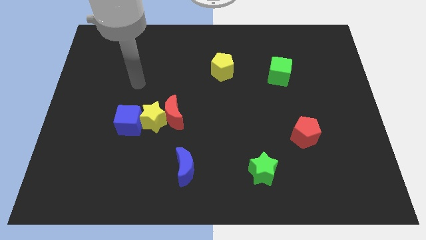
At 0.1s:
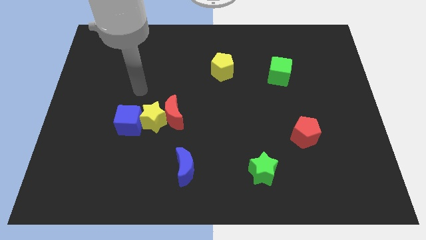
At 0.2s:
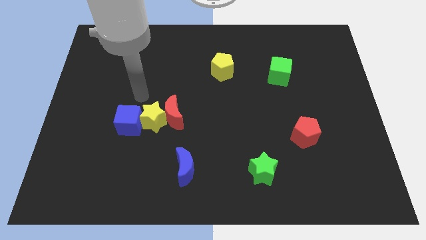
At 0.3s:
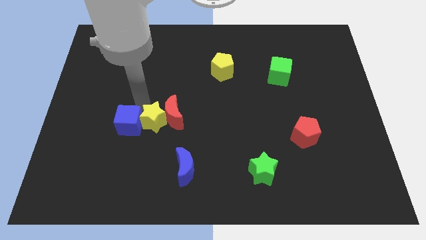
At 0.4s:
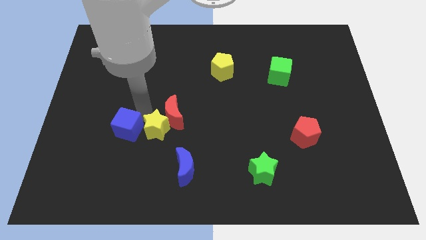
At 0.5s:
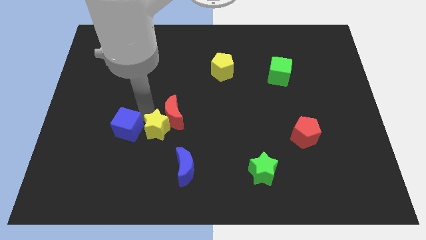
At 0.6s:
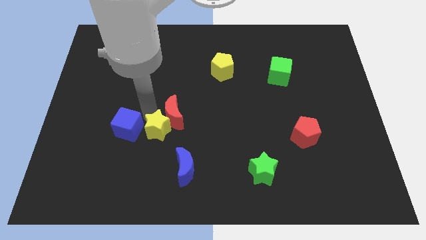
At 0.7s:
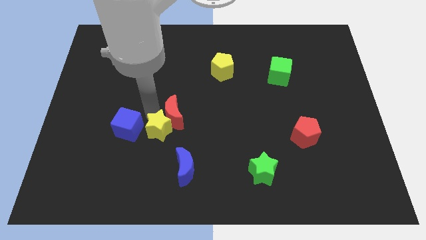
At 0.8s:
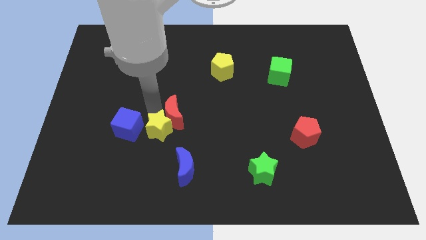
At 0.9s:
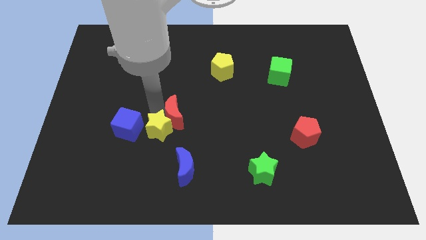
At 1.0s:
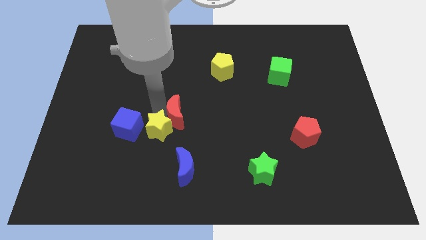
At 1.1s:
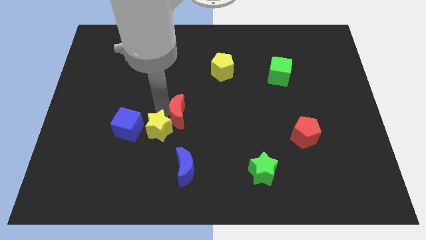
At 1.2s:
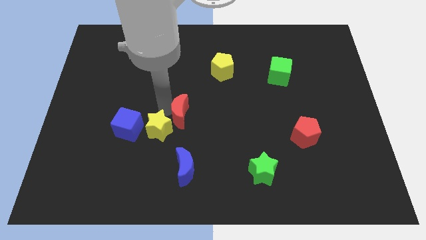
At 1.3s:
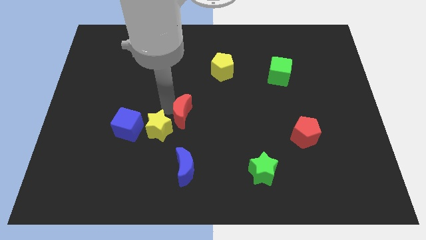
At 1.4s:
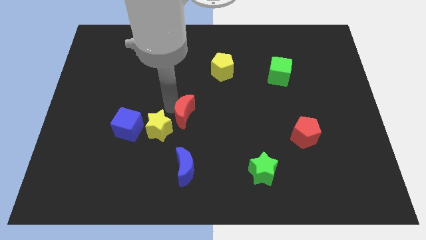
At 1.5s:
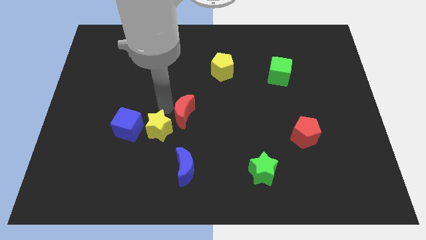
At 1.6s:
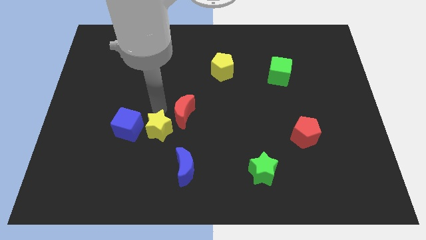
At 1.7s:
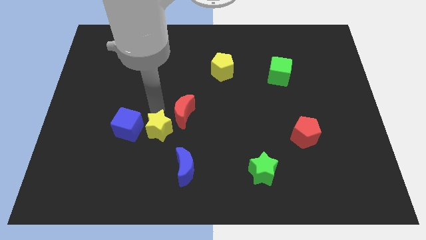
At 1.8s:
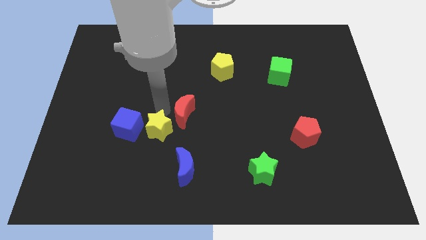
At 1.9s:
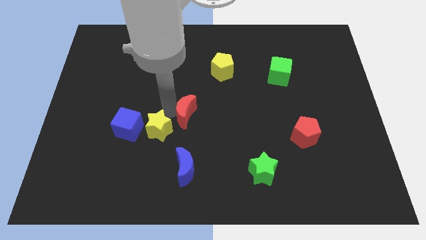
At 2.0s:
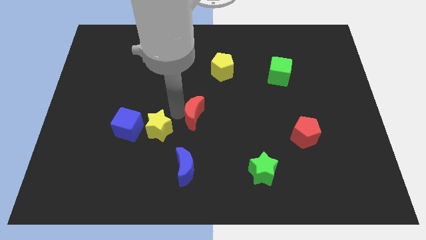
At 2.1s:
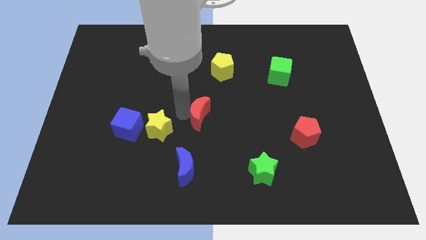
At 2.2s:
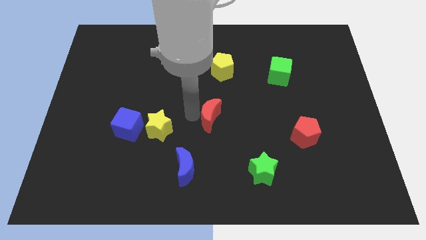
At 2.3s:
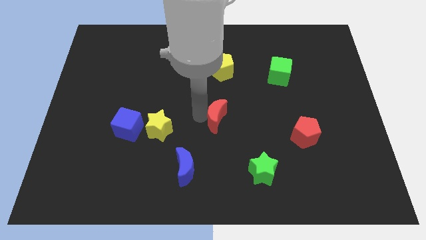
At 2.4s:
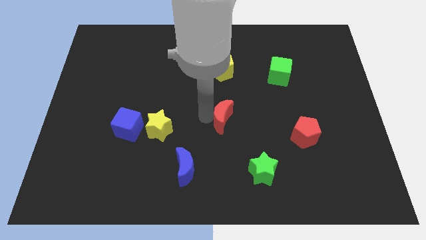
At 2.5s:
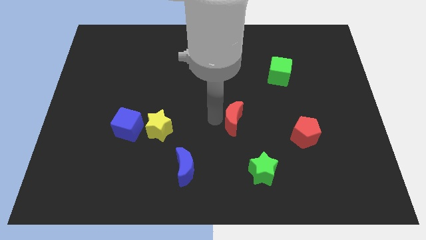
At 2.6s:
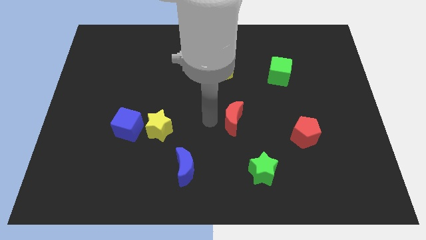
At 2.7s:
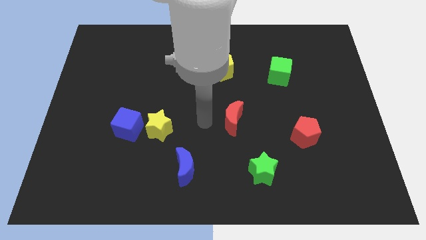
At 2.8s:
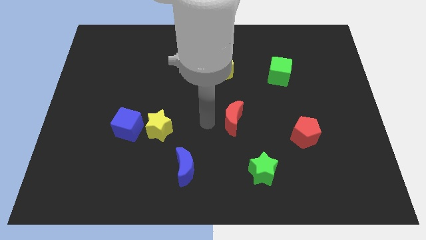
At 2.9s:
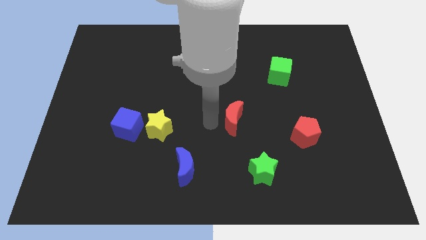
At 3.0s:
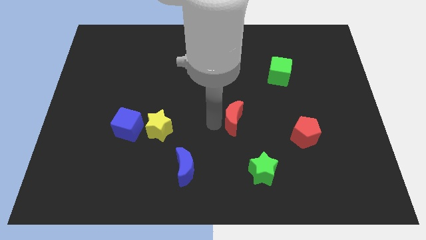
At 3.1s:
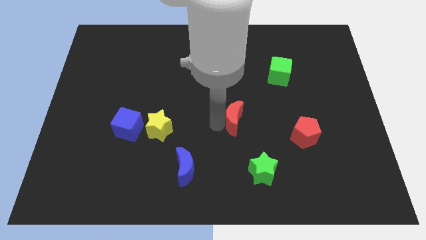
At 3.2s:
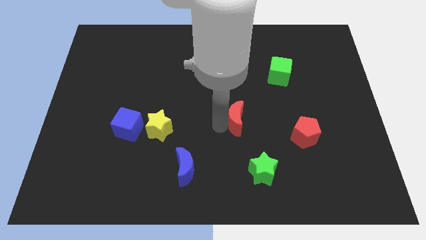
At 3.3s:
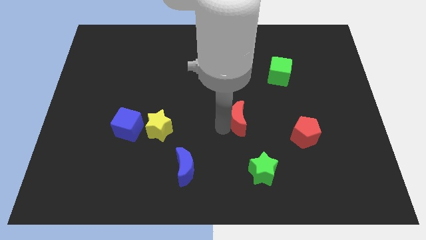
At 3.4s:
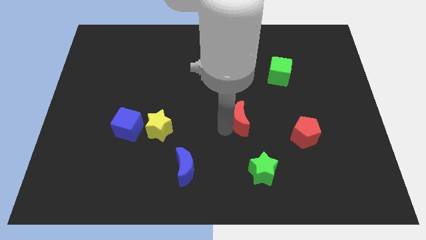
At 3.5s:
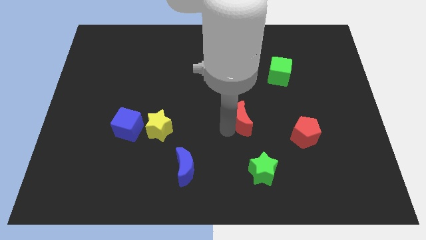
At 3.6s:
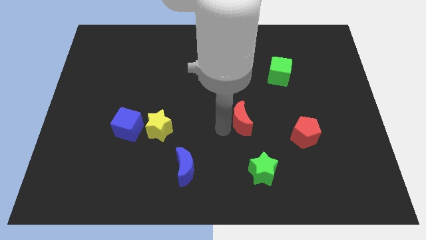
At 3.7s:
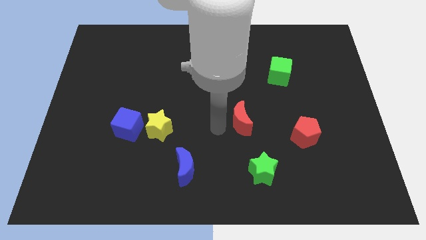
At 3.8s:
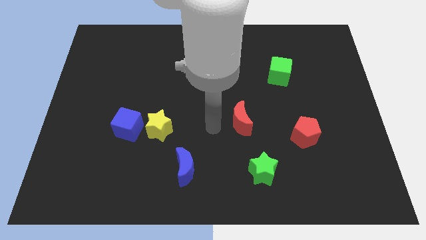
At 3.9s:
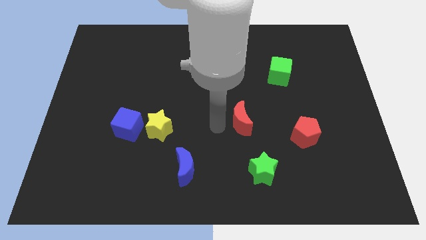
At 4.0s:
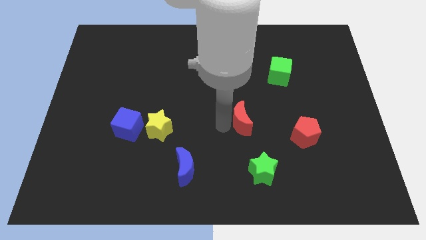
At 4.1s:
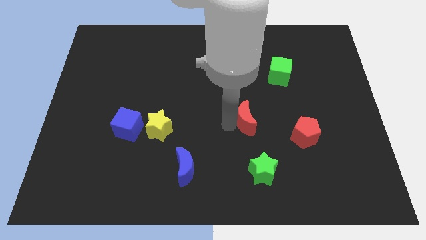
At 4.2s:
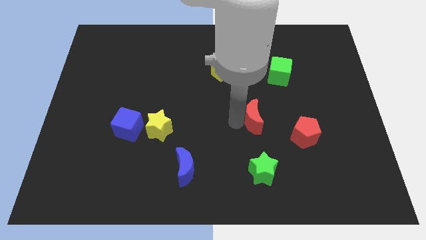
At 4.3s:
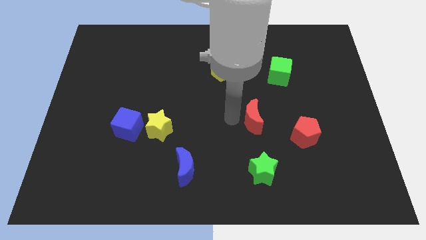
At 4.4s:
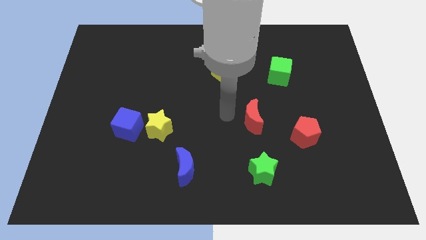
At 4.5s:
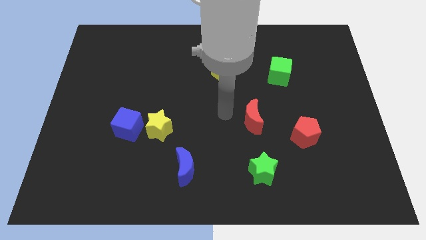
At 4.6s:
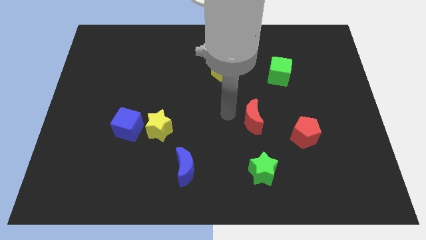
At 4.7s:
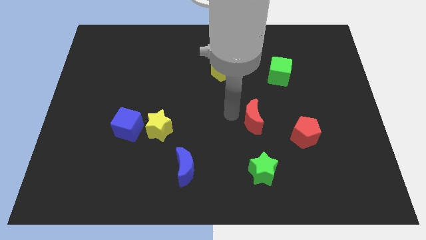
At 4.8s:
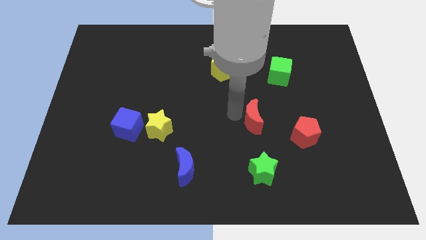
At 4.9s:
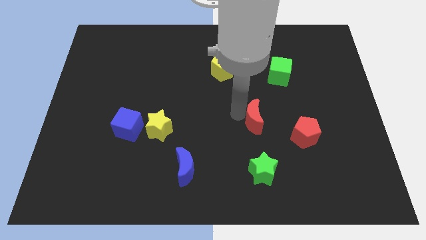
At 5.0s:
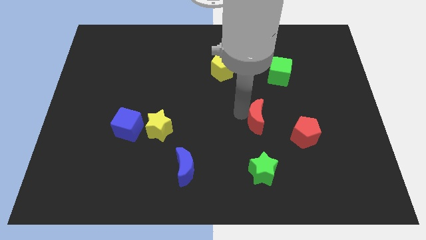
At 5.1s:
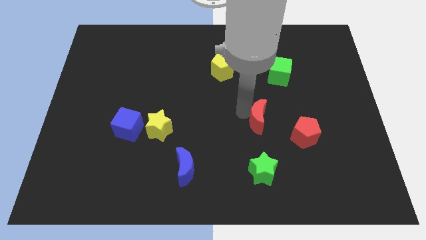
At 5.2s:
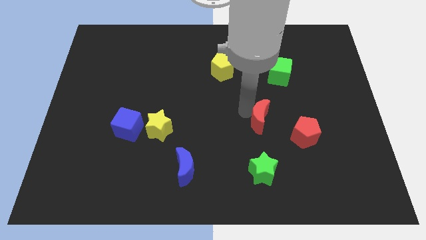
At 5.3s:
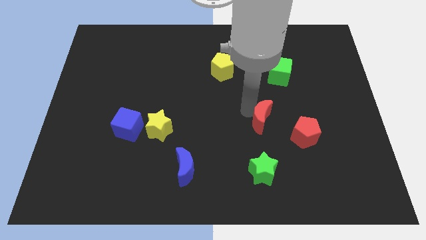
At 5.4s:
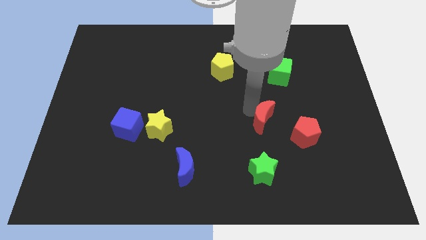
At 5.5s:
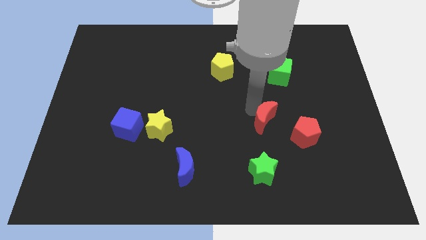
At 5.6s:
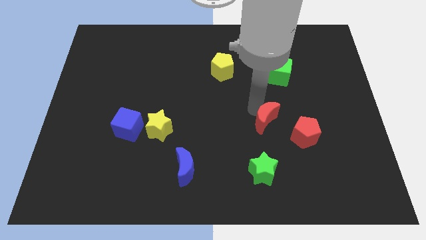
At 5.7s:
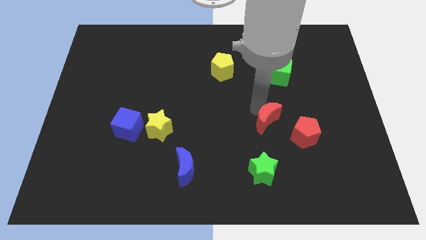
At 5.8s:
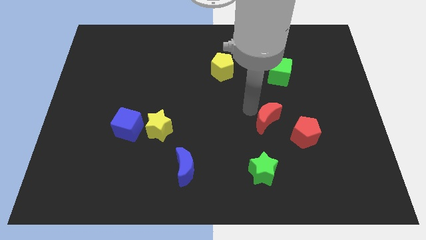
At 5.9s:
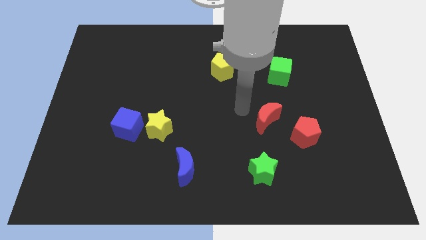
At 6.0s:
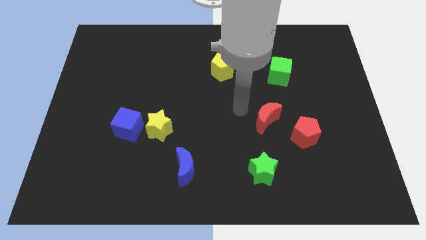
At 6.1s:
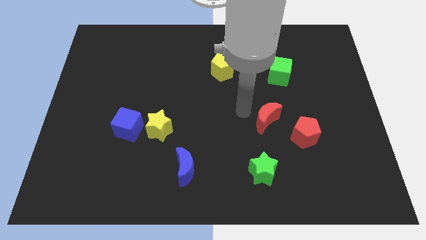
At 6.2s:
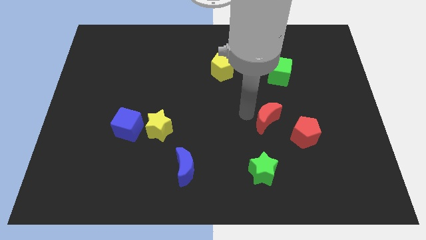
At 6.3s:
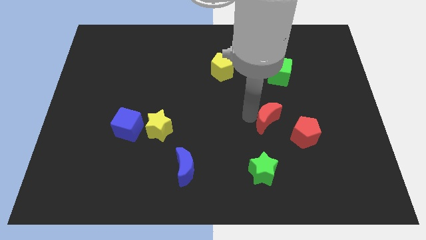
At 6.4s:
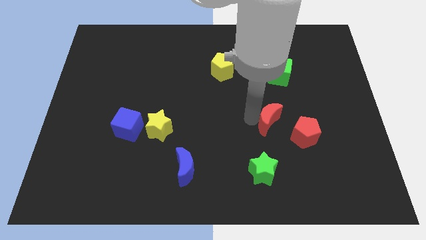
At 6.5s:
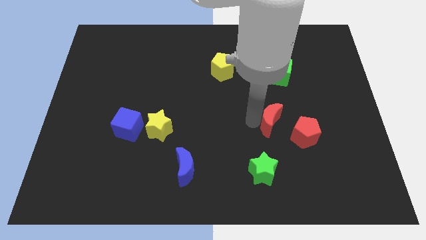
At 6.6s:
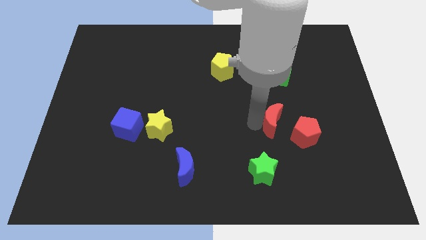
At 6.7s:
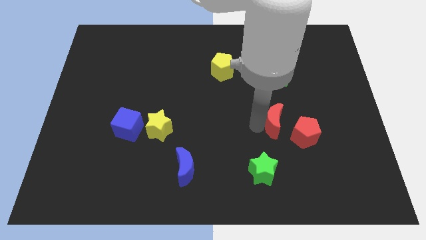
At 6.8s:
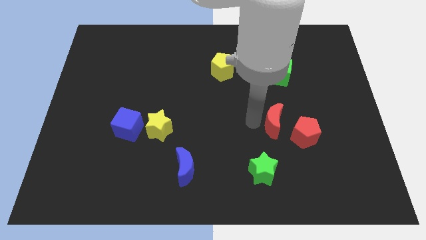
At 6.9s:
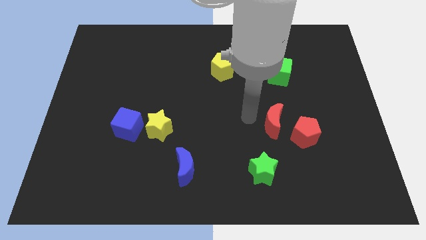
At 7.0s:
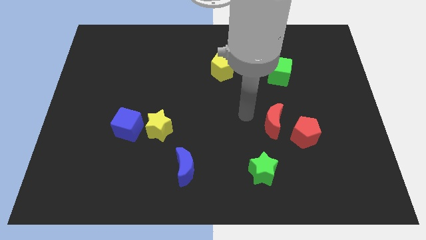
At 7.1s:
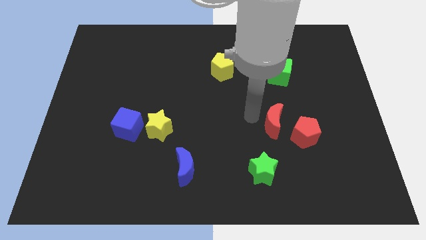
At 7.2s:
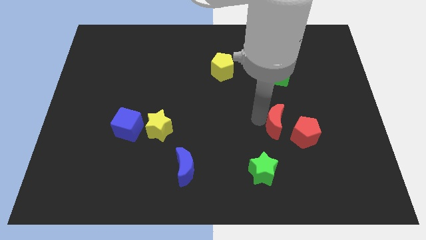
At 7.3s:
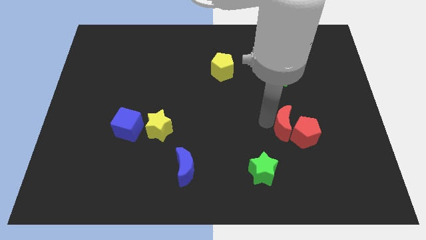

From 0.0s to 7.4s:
push the red moon to the red pentagon

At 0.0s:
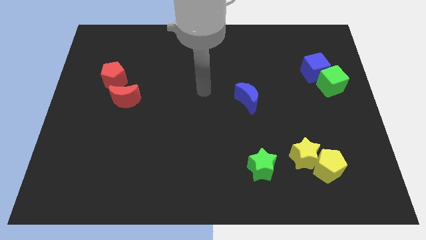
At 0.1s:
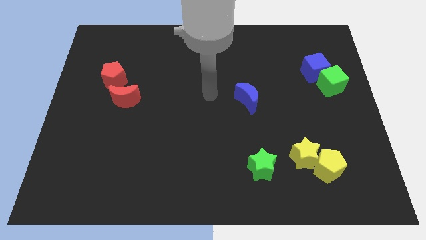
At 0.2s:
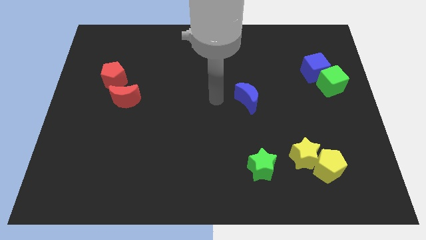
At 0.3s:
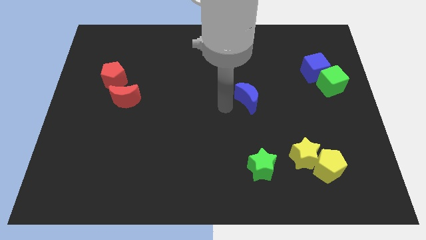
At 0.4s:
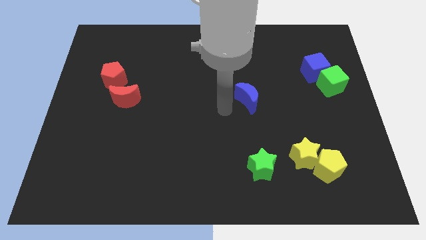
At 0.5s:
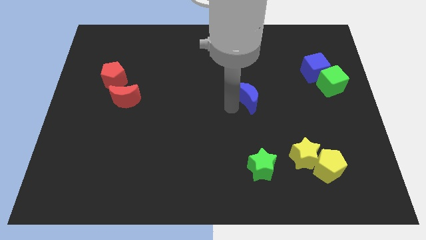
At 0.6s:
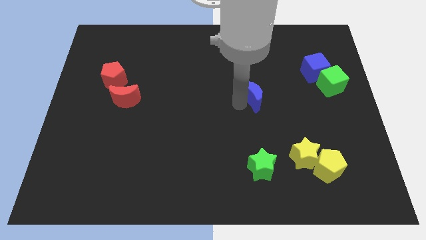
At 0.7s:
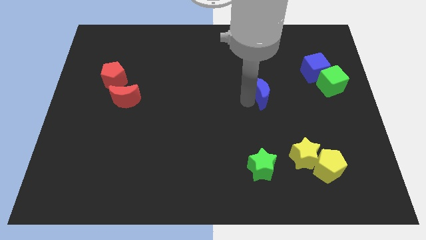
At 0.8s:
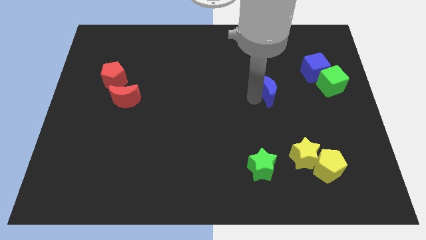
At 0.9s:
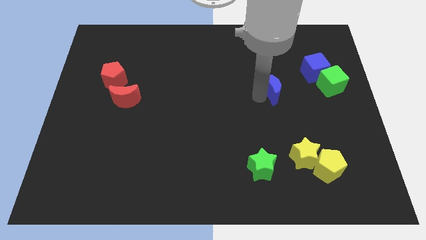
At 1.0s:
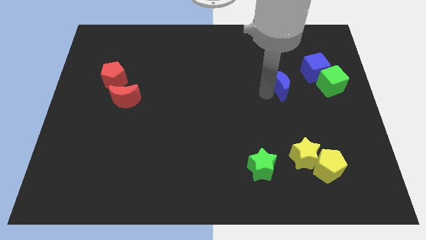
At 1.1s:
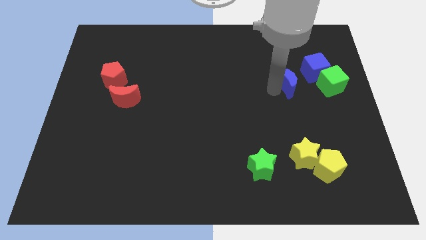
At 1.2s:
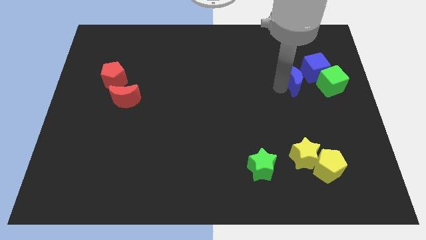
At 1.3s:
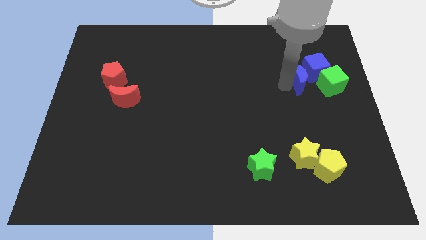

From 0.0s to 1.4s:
put the blue moon close to the blue cube
